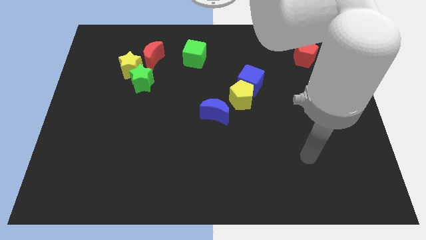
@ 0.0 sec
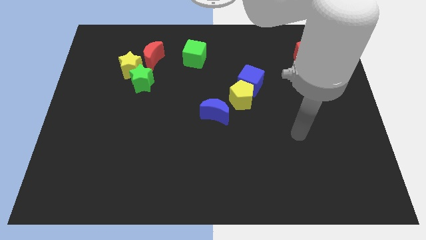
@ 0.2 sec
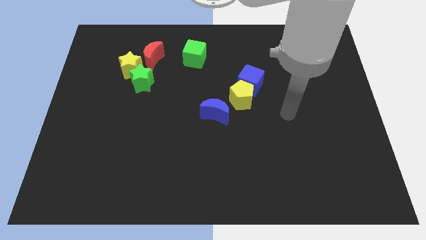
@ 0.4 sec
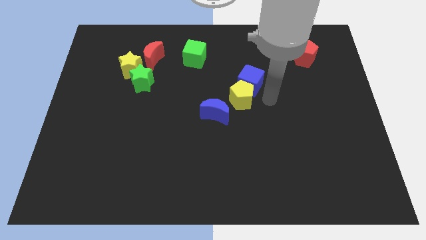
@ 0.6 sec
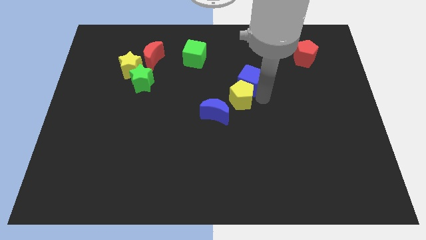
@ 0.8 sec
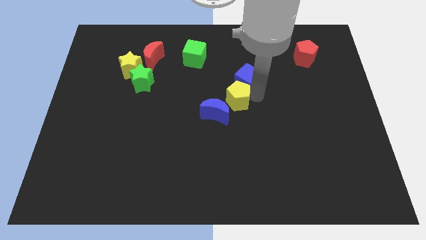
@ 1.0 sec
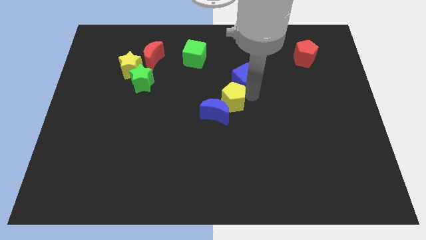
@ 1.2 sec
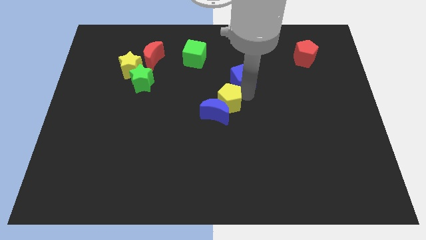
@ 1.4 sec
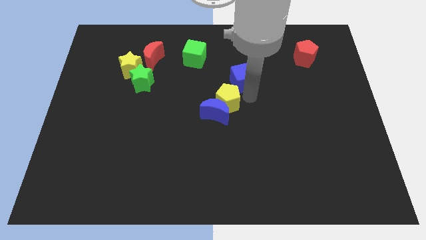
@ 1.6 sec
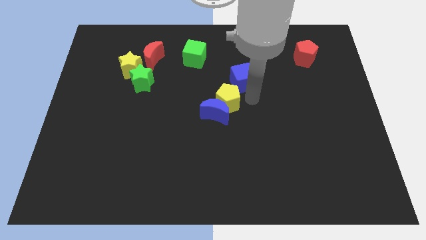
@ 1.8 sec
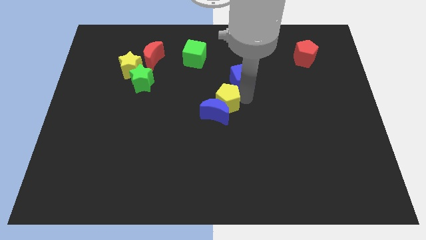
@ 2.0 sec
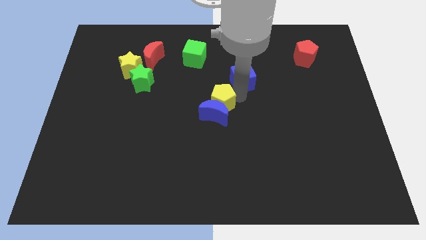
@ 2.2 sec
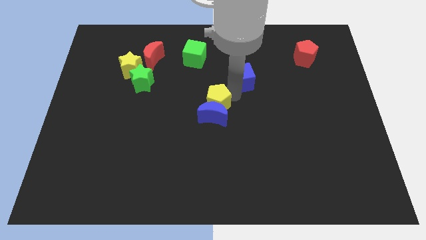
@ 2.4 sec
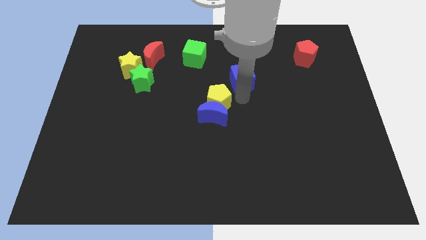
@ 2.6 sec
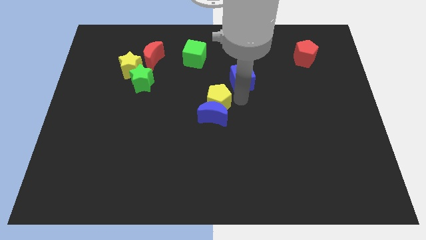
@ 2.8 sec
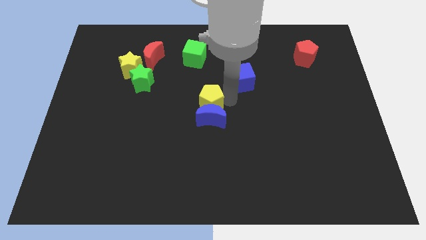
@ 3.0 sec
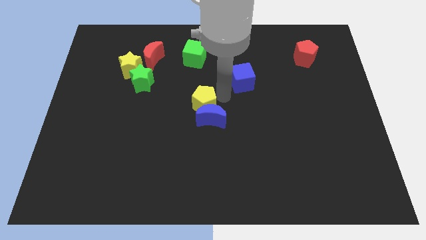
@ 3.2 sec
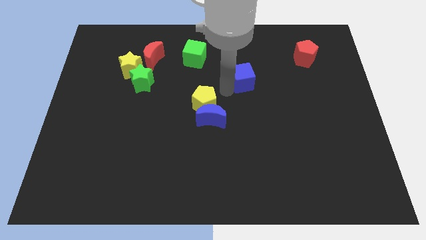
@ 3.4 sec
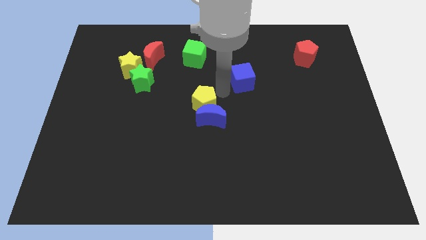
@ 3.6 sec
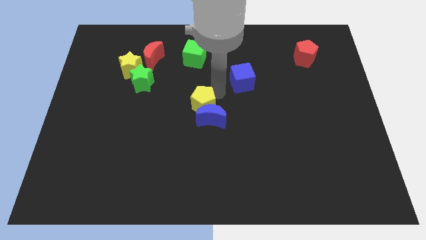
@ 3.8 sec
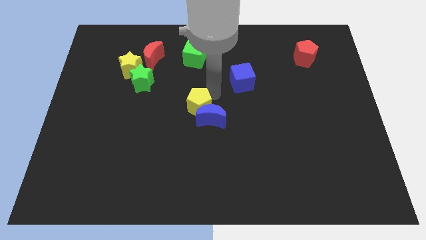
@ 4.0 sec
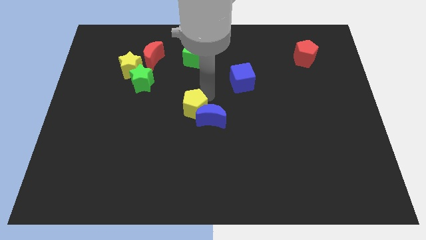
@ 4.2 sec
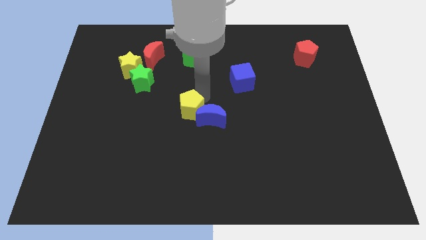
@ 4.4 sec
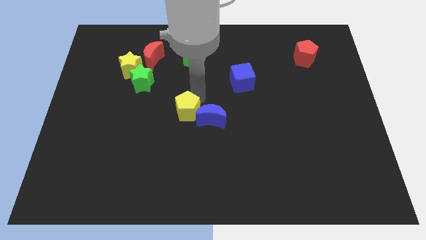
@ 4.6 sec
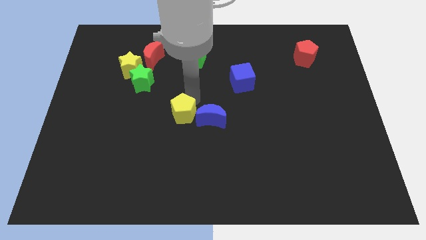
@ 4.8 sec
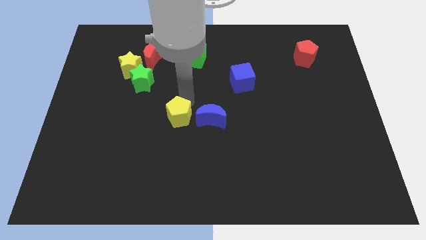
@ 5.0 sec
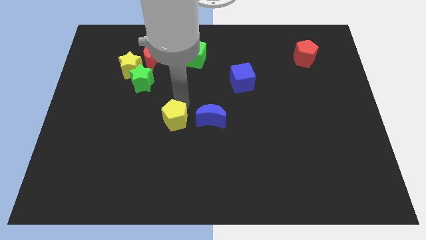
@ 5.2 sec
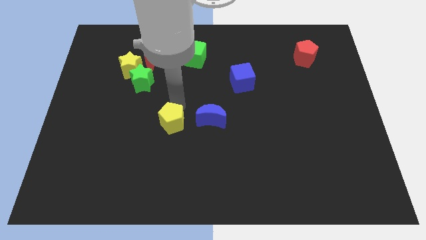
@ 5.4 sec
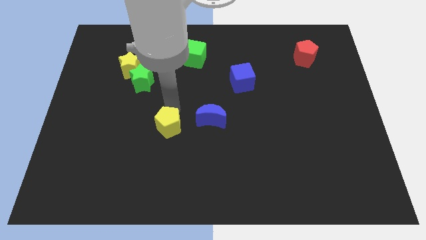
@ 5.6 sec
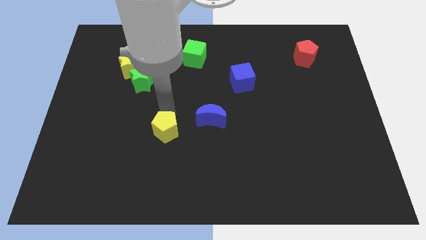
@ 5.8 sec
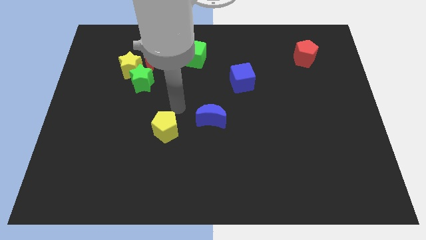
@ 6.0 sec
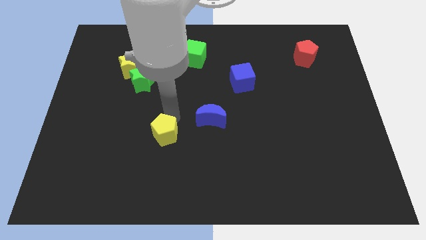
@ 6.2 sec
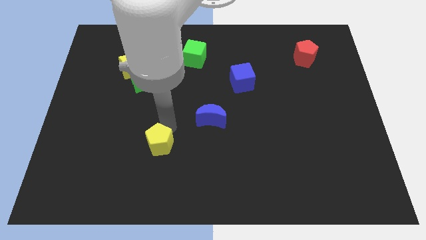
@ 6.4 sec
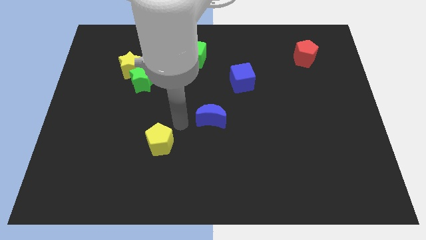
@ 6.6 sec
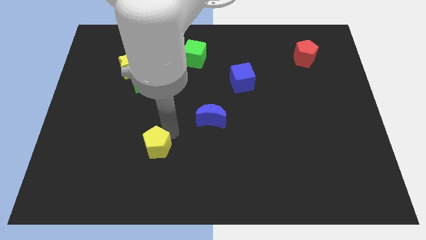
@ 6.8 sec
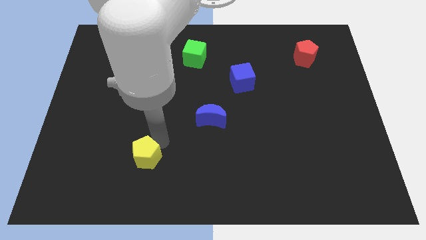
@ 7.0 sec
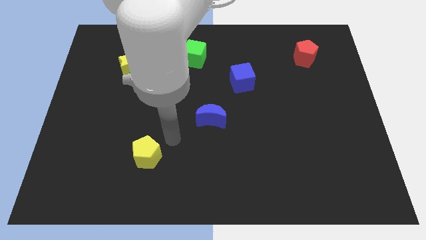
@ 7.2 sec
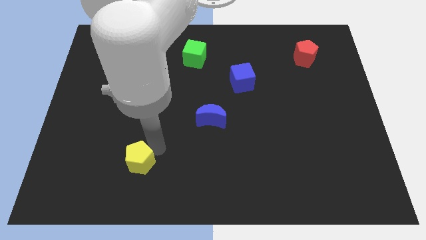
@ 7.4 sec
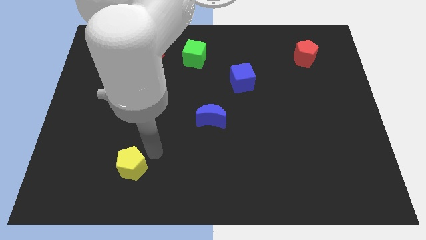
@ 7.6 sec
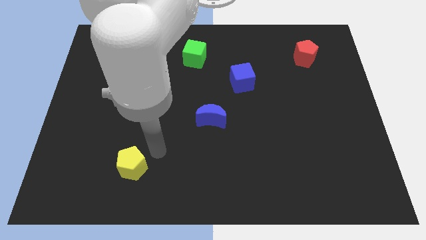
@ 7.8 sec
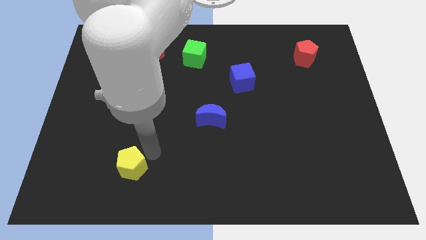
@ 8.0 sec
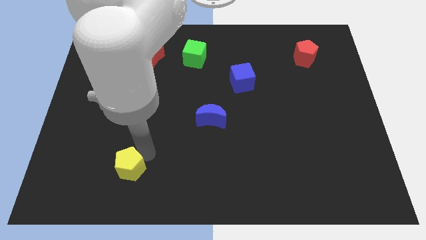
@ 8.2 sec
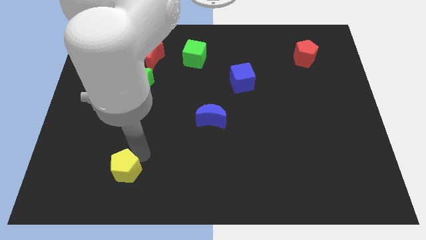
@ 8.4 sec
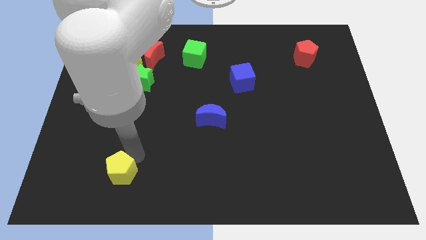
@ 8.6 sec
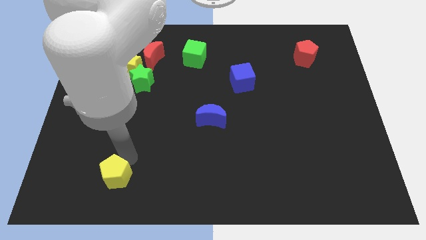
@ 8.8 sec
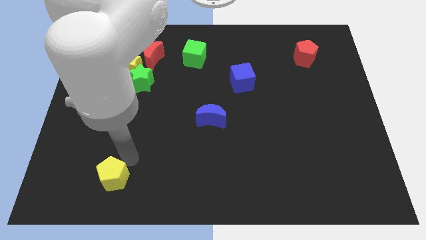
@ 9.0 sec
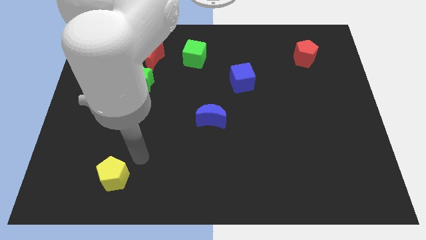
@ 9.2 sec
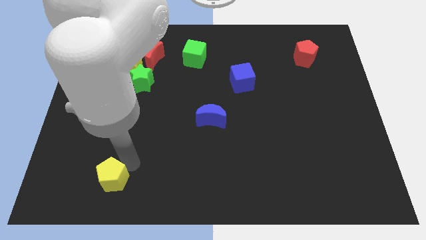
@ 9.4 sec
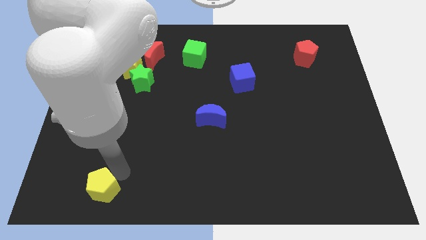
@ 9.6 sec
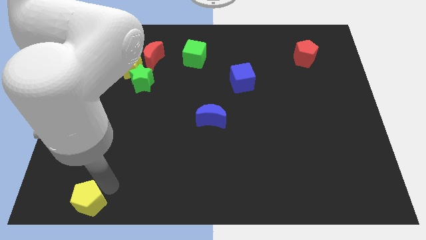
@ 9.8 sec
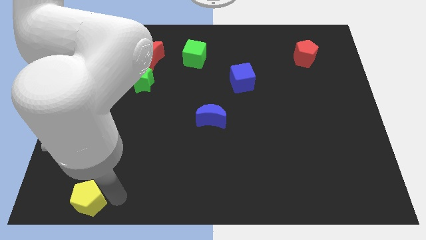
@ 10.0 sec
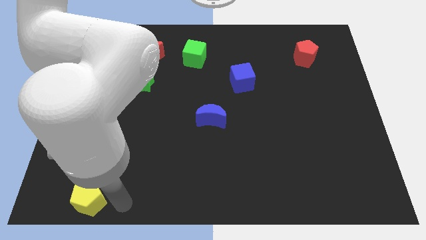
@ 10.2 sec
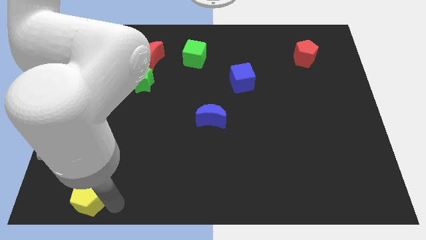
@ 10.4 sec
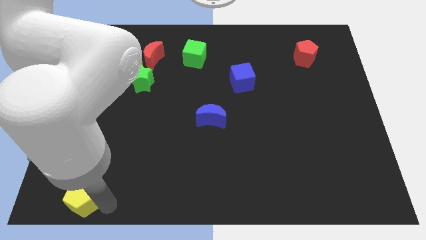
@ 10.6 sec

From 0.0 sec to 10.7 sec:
move the yellow pentagon to the bottom left corner

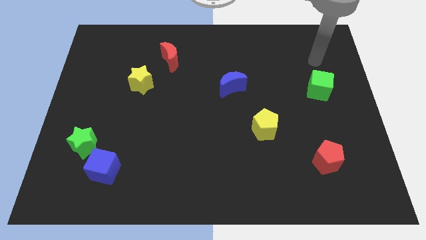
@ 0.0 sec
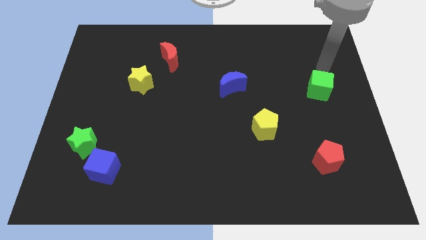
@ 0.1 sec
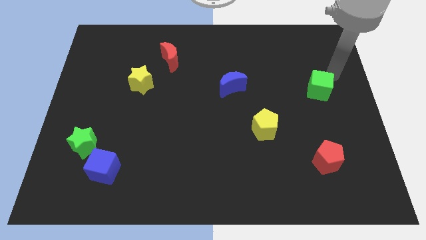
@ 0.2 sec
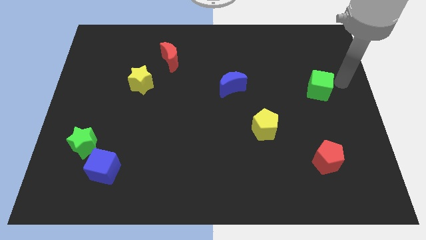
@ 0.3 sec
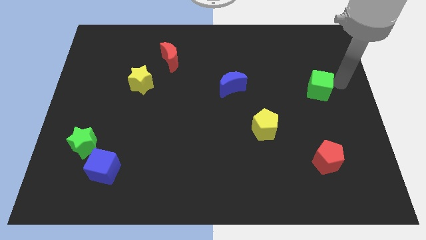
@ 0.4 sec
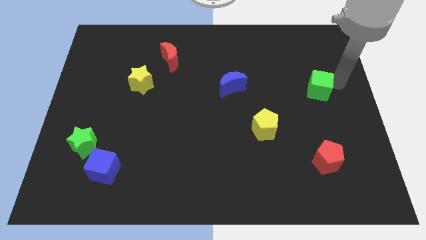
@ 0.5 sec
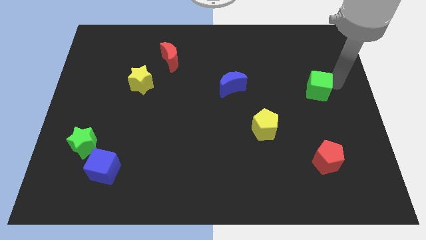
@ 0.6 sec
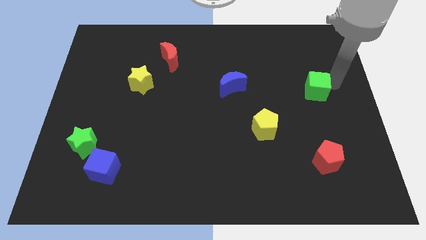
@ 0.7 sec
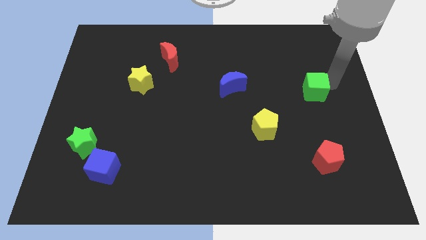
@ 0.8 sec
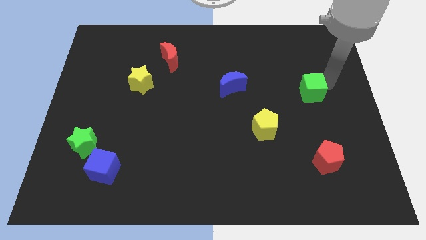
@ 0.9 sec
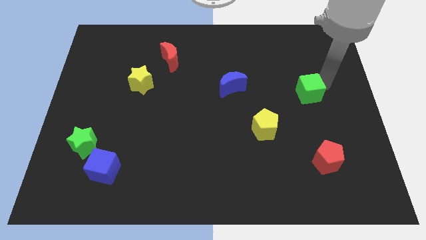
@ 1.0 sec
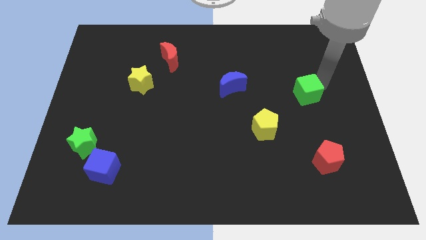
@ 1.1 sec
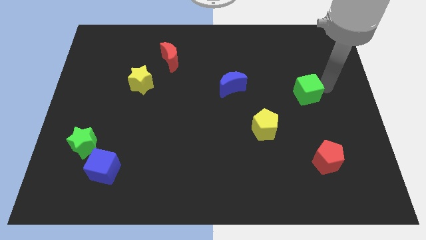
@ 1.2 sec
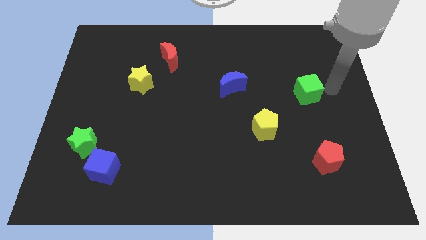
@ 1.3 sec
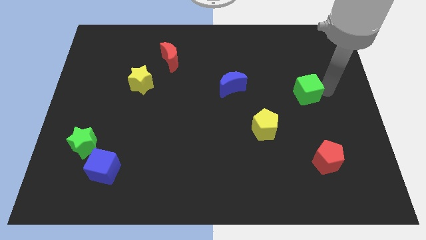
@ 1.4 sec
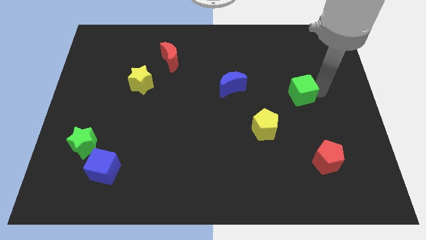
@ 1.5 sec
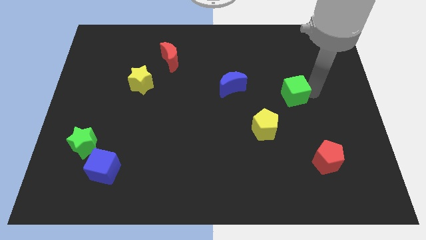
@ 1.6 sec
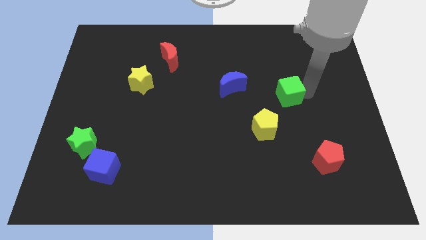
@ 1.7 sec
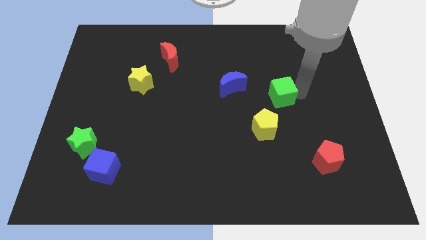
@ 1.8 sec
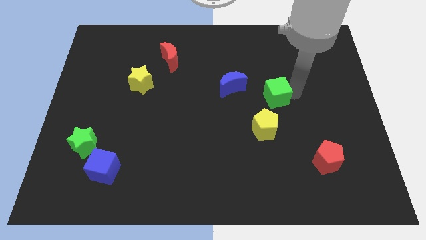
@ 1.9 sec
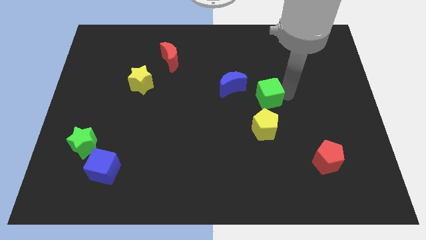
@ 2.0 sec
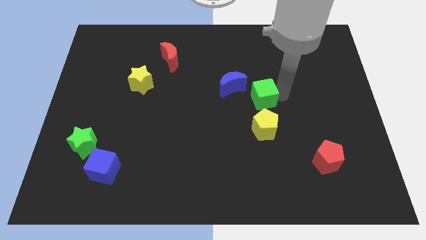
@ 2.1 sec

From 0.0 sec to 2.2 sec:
put the green cube to the center of the board
